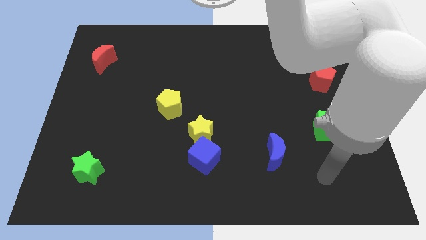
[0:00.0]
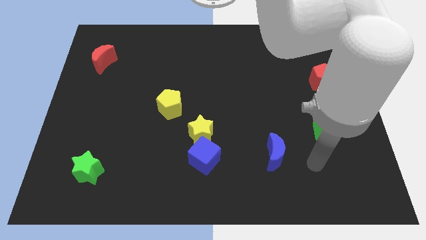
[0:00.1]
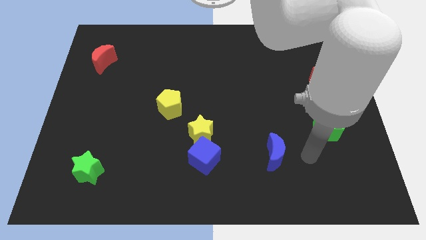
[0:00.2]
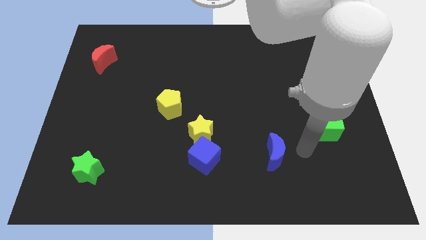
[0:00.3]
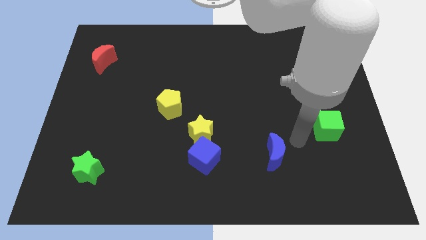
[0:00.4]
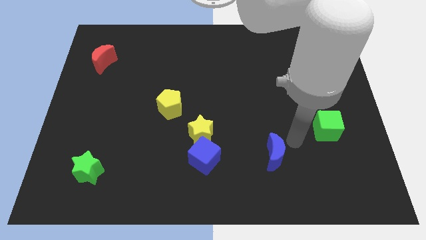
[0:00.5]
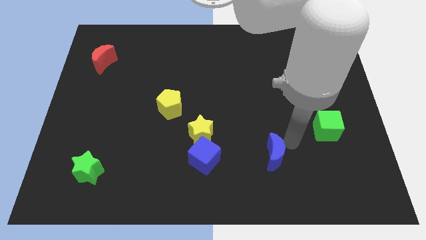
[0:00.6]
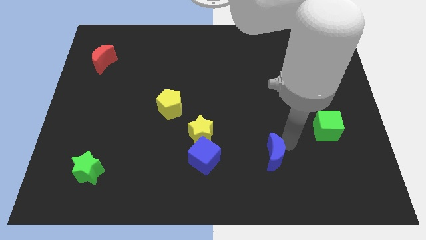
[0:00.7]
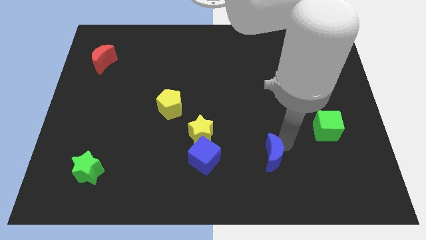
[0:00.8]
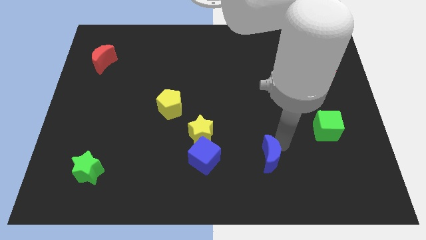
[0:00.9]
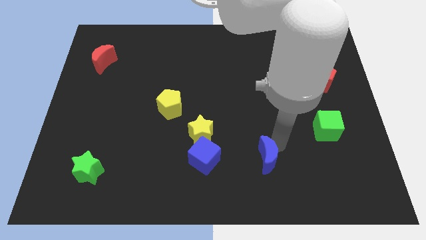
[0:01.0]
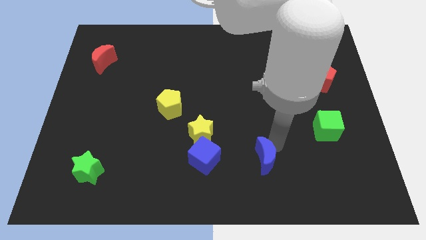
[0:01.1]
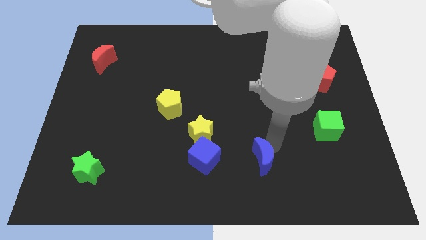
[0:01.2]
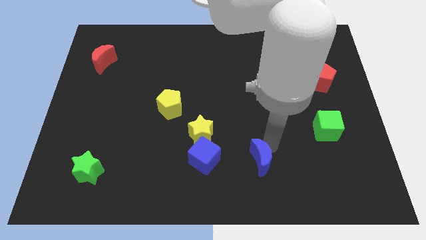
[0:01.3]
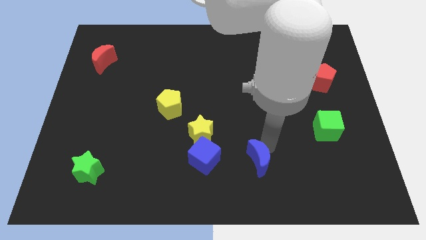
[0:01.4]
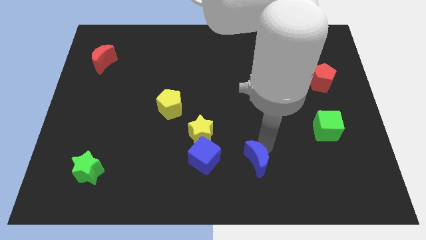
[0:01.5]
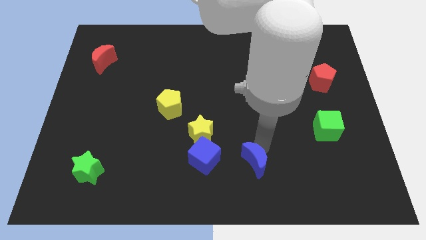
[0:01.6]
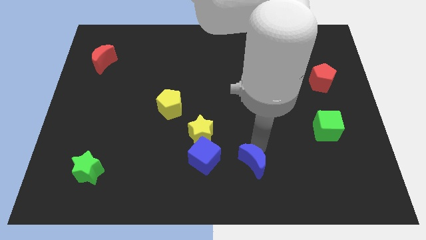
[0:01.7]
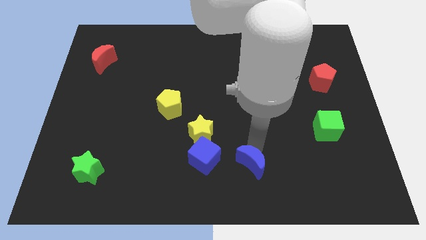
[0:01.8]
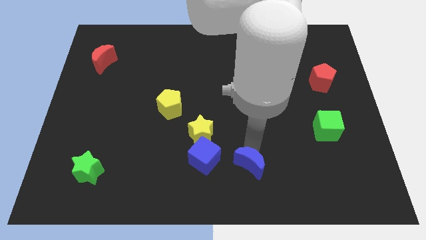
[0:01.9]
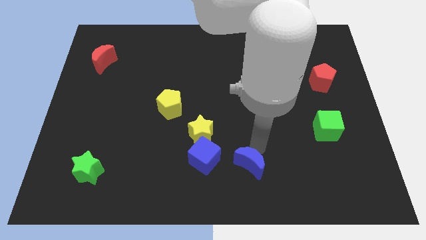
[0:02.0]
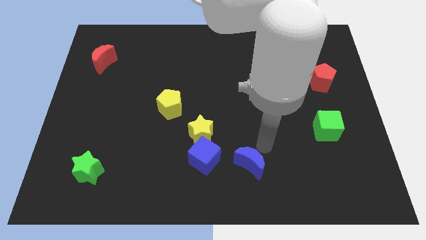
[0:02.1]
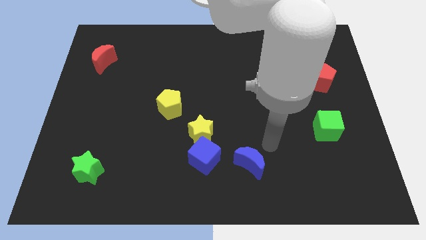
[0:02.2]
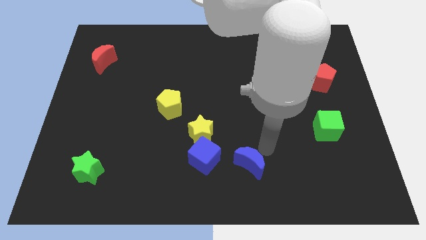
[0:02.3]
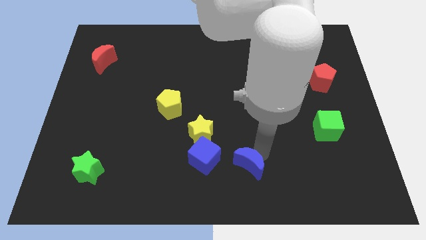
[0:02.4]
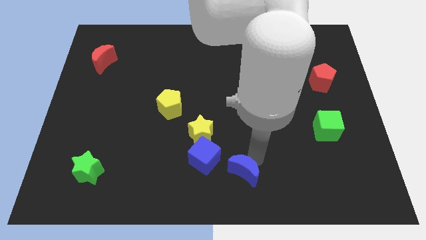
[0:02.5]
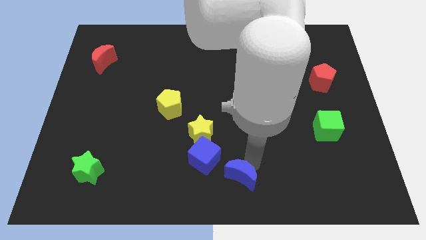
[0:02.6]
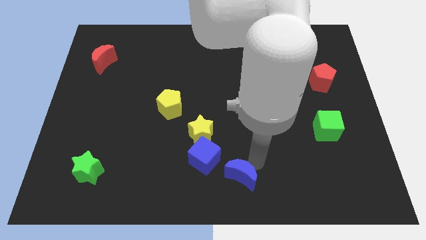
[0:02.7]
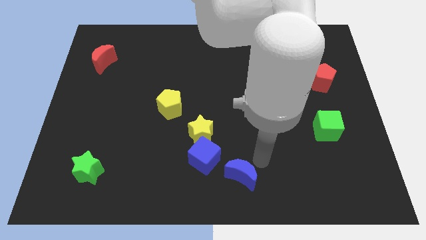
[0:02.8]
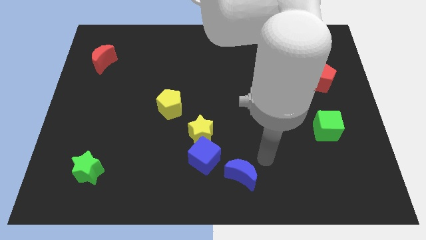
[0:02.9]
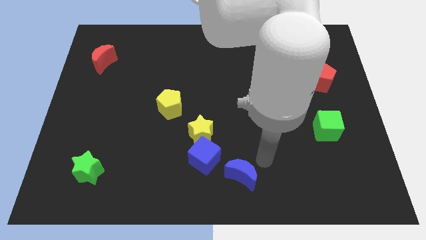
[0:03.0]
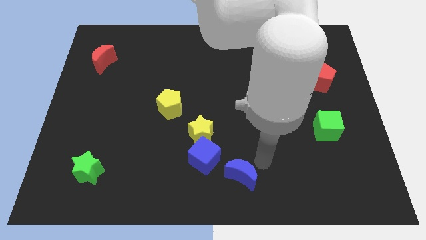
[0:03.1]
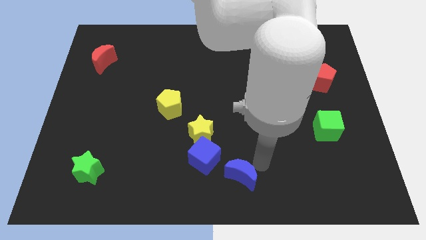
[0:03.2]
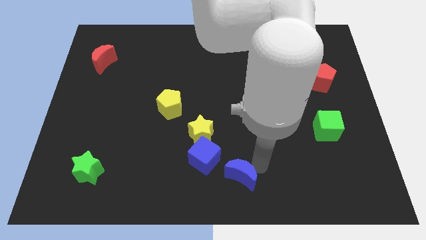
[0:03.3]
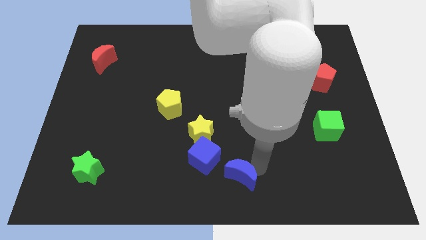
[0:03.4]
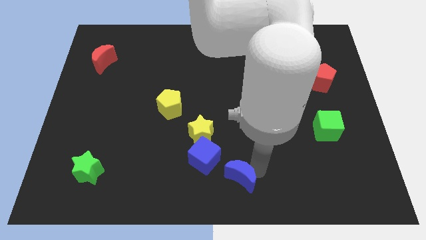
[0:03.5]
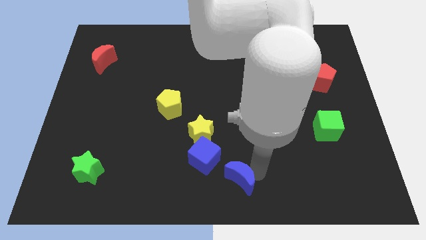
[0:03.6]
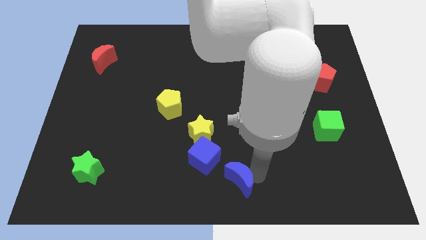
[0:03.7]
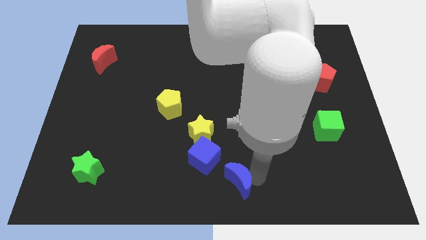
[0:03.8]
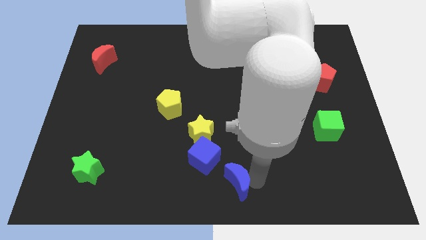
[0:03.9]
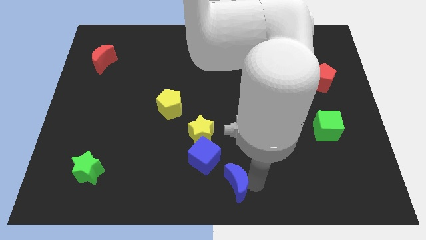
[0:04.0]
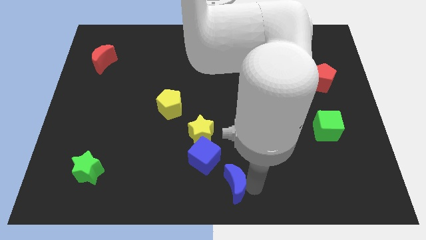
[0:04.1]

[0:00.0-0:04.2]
push the blue moon a little bit to the left

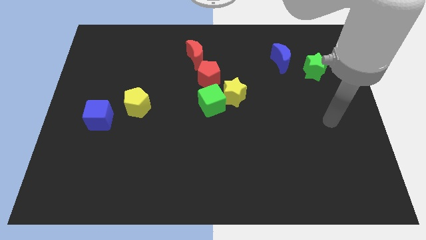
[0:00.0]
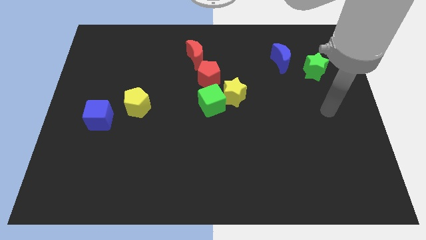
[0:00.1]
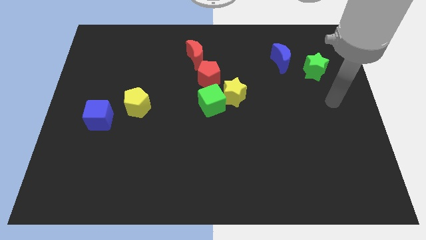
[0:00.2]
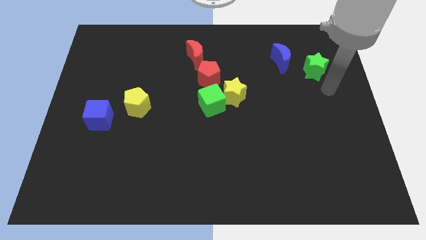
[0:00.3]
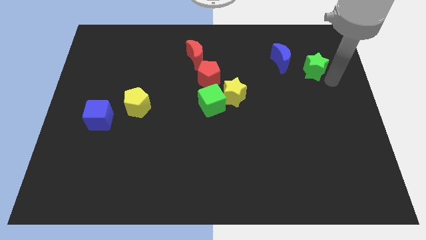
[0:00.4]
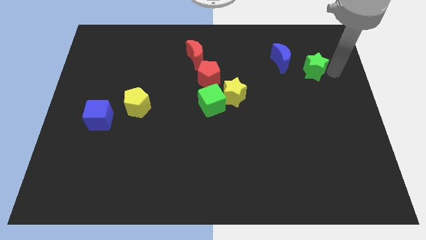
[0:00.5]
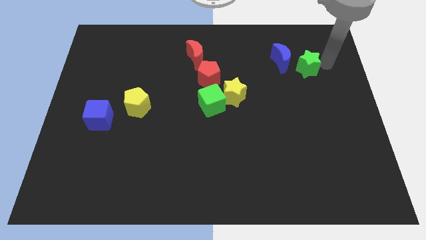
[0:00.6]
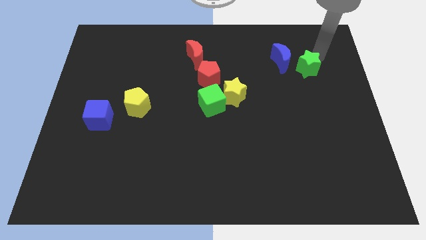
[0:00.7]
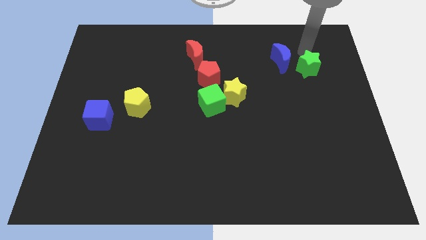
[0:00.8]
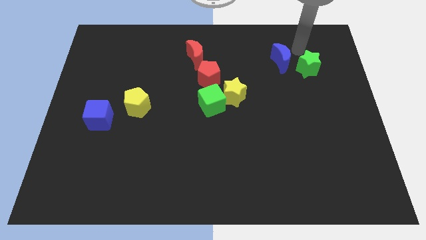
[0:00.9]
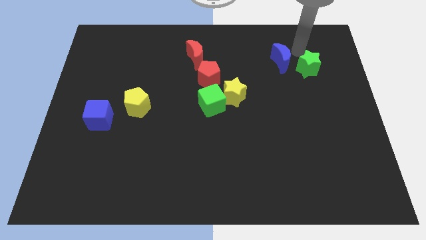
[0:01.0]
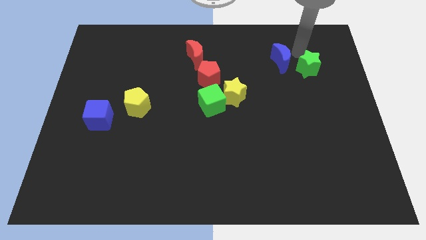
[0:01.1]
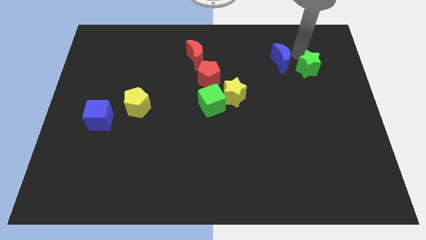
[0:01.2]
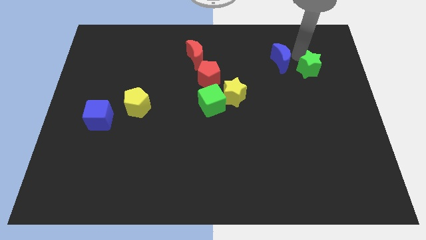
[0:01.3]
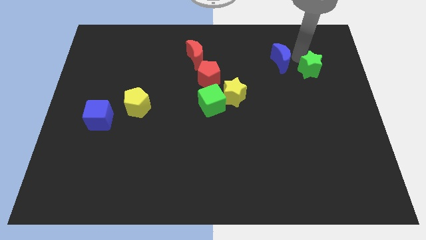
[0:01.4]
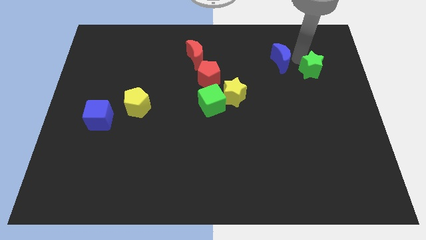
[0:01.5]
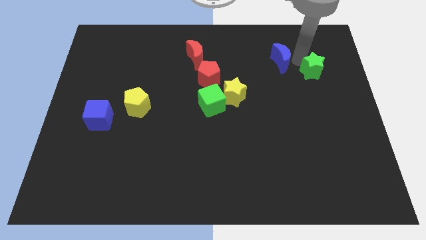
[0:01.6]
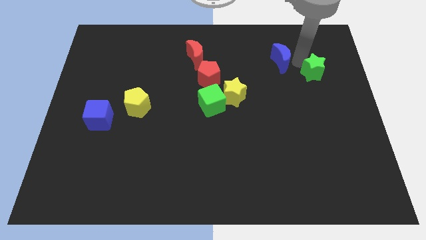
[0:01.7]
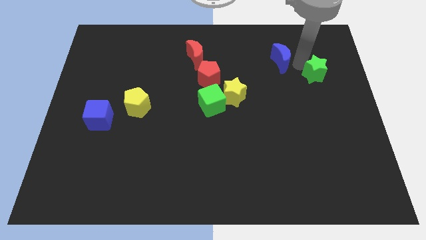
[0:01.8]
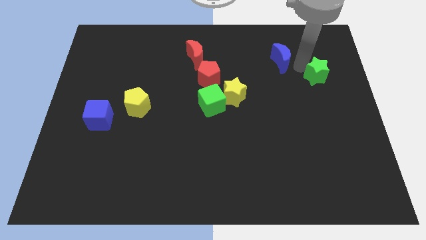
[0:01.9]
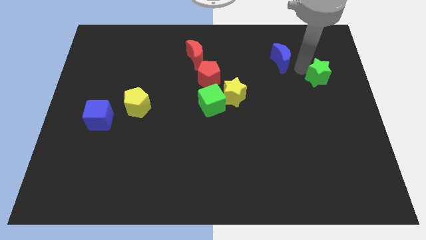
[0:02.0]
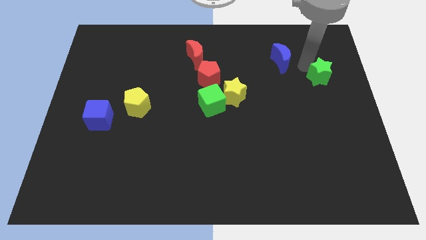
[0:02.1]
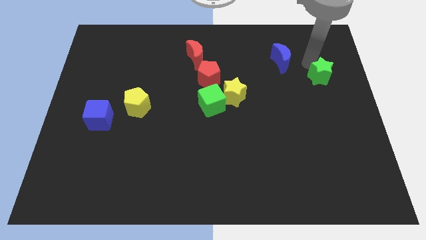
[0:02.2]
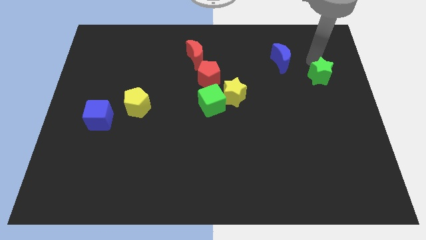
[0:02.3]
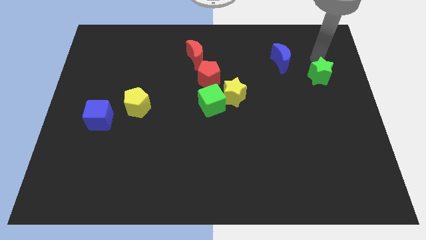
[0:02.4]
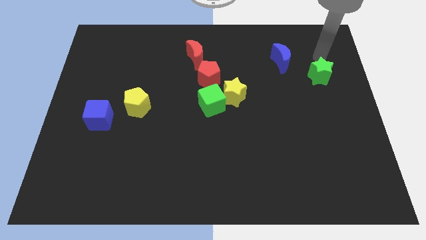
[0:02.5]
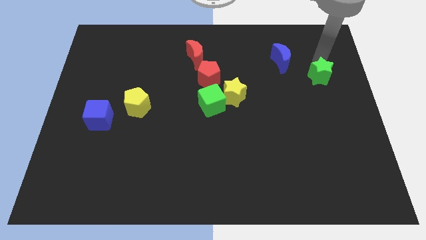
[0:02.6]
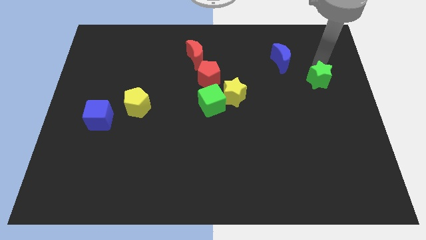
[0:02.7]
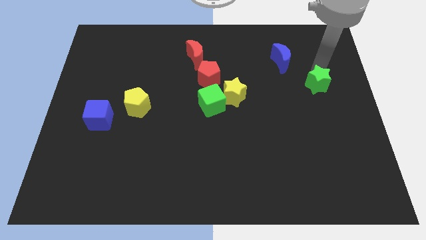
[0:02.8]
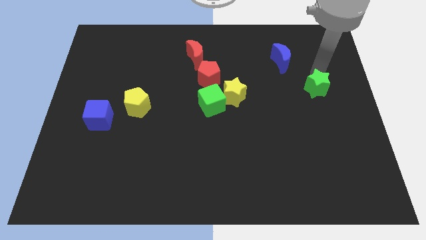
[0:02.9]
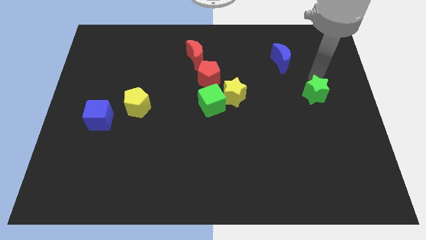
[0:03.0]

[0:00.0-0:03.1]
slide the green star a little bit downwards

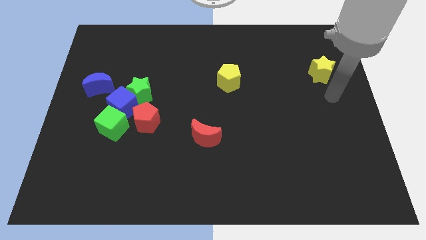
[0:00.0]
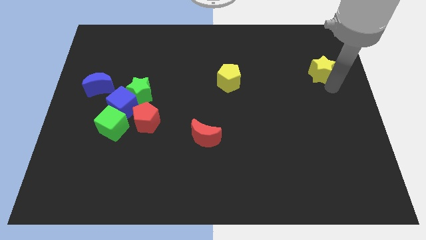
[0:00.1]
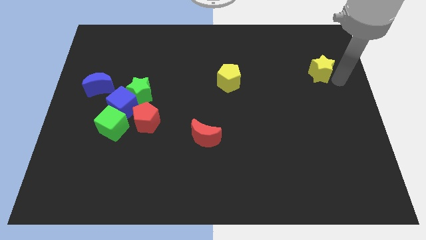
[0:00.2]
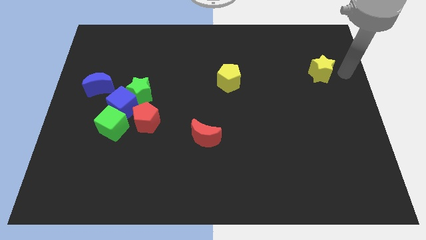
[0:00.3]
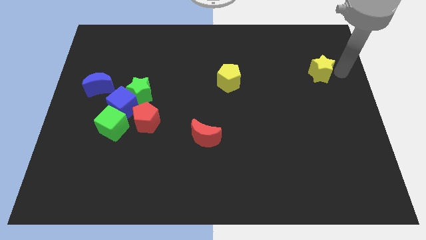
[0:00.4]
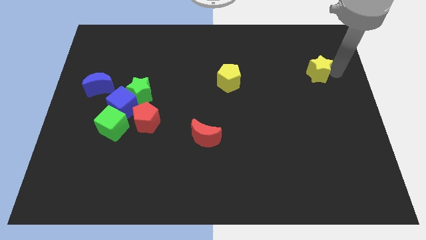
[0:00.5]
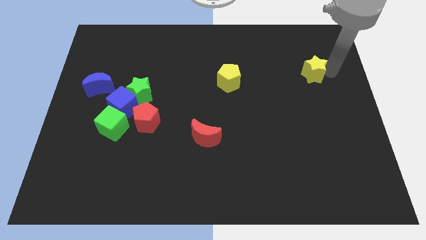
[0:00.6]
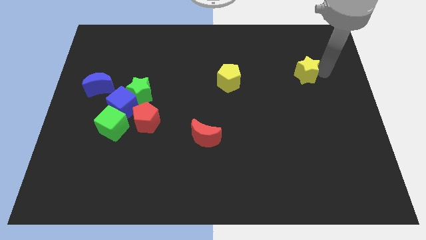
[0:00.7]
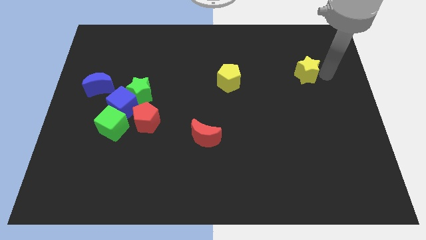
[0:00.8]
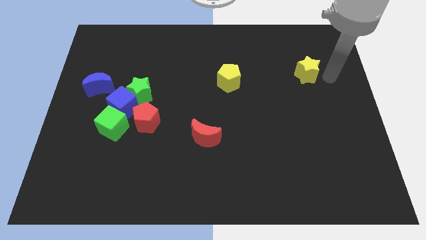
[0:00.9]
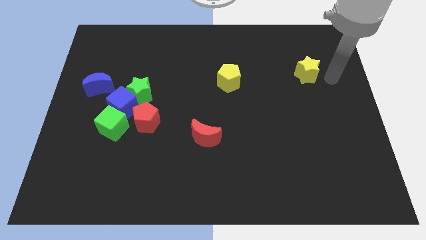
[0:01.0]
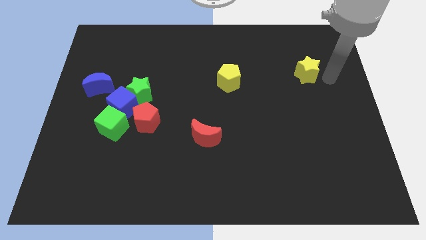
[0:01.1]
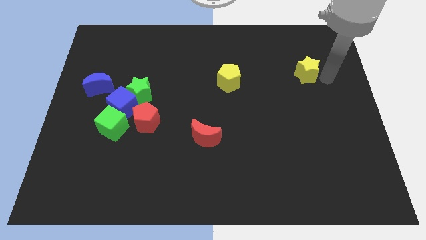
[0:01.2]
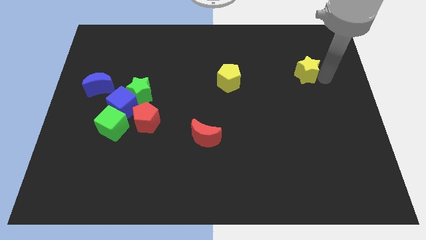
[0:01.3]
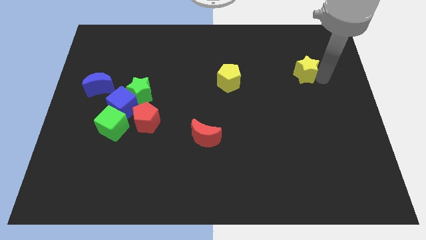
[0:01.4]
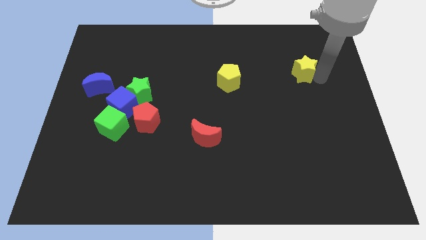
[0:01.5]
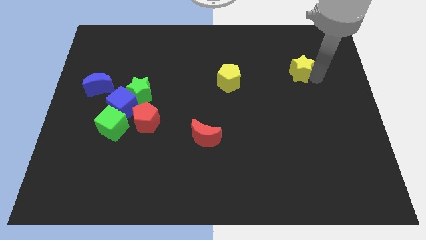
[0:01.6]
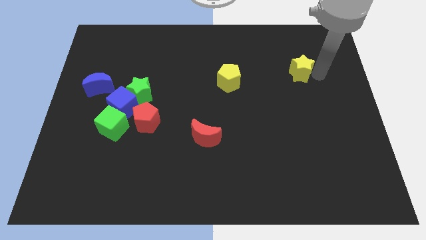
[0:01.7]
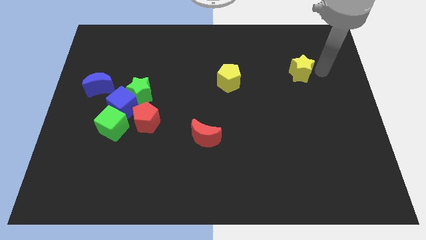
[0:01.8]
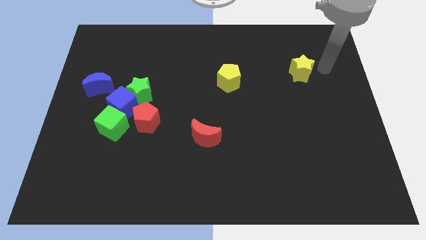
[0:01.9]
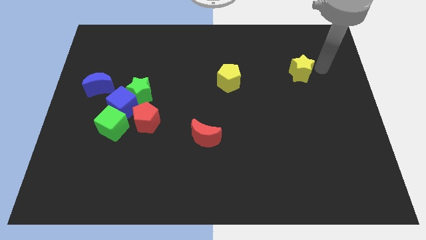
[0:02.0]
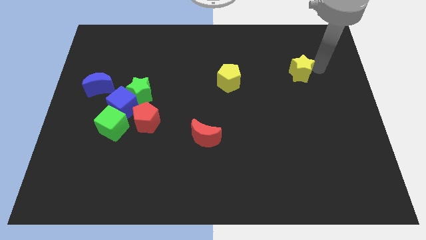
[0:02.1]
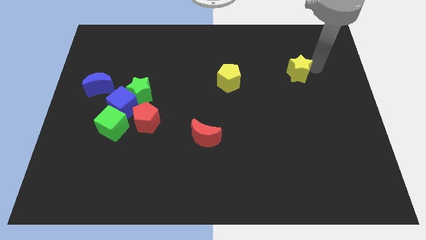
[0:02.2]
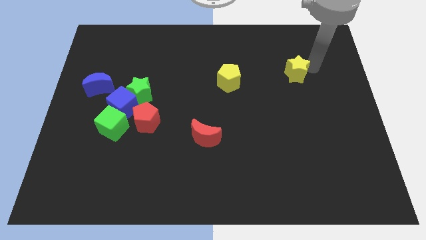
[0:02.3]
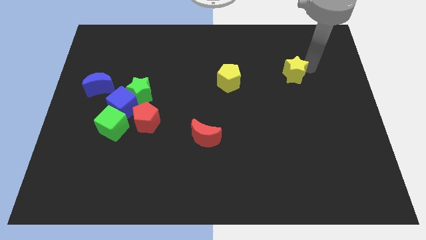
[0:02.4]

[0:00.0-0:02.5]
slide the yellow star to the left slightly
